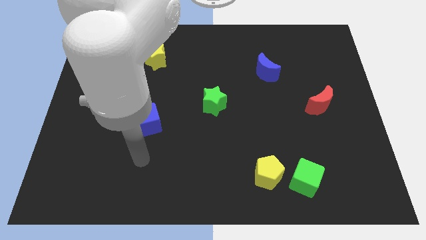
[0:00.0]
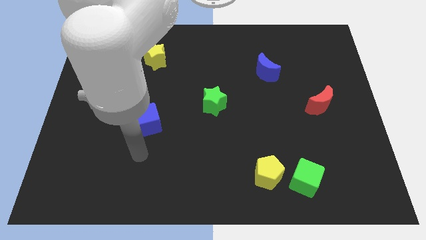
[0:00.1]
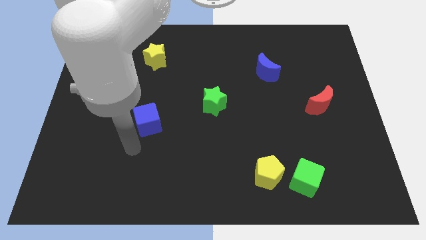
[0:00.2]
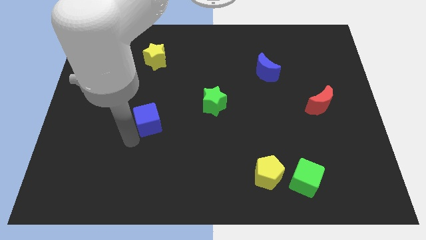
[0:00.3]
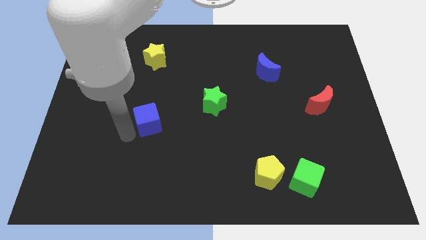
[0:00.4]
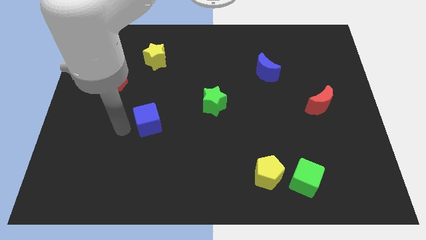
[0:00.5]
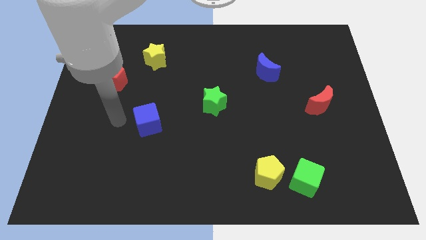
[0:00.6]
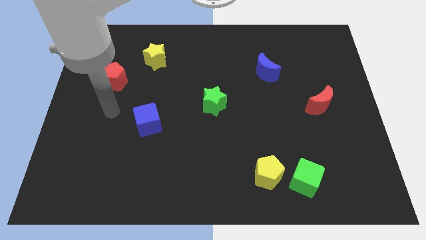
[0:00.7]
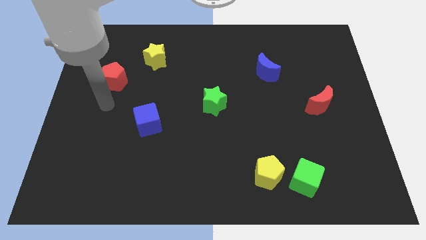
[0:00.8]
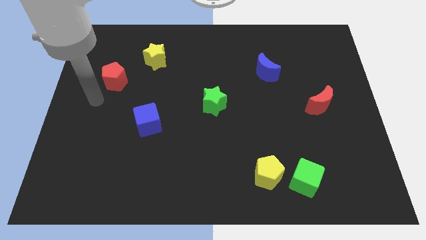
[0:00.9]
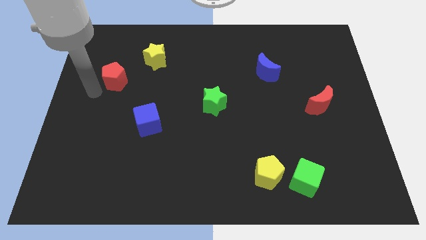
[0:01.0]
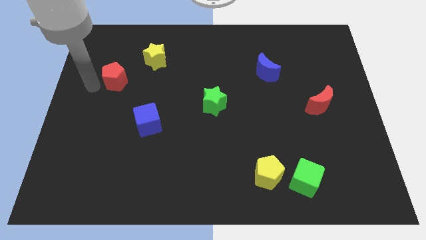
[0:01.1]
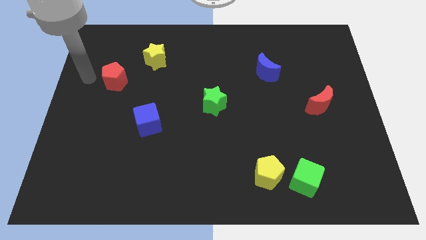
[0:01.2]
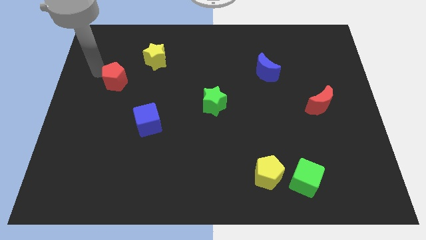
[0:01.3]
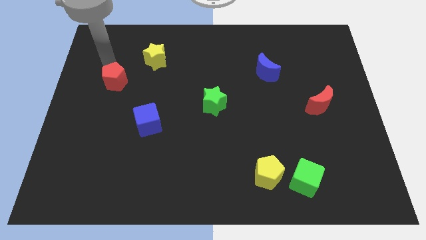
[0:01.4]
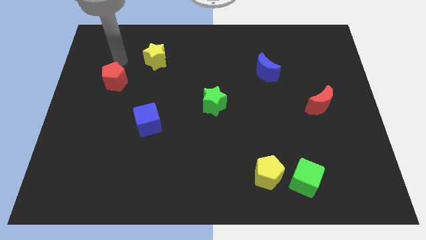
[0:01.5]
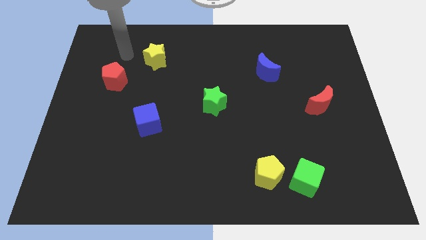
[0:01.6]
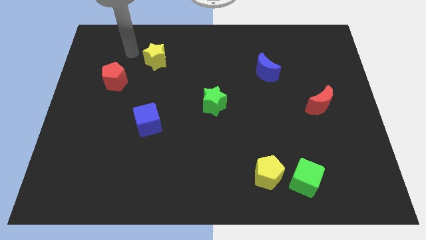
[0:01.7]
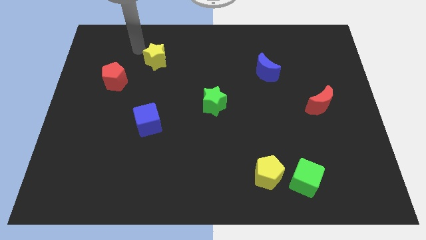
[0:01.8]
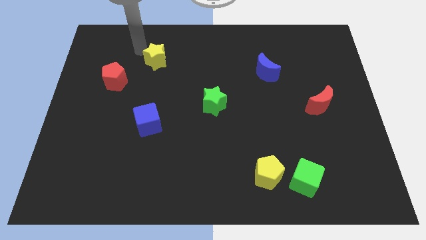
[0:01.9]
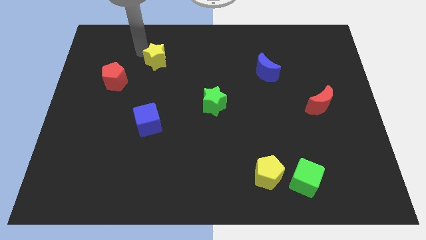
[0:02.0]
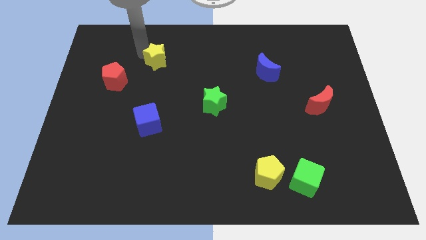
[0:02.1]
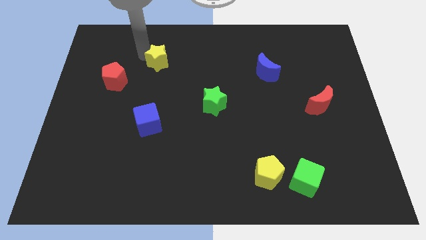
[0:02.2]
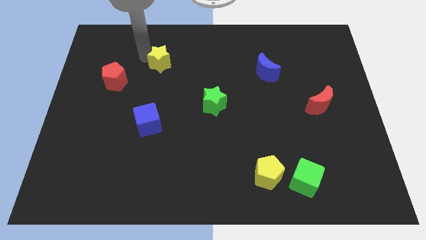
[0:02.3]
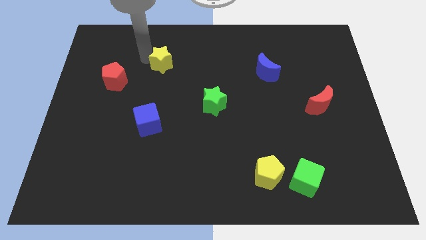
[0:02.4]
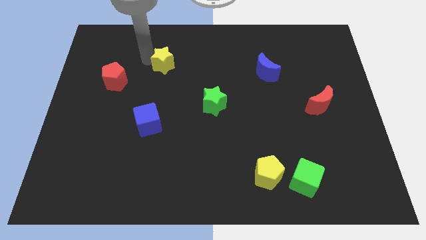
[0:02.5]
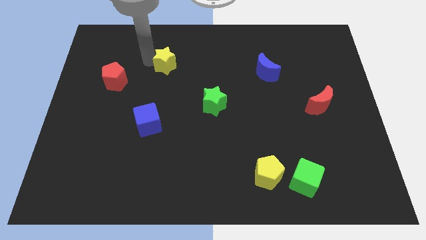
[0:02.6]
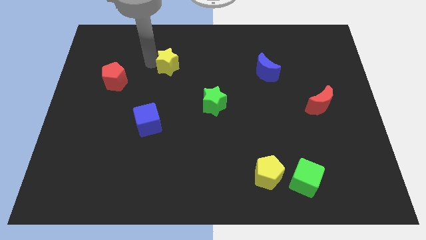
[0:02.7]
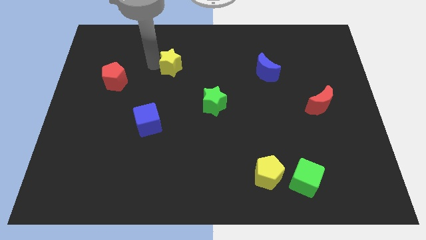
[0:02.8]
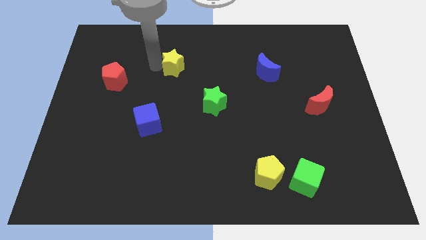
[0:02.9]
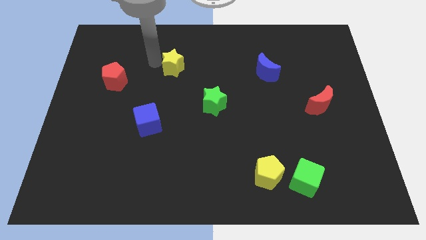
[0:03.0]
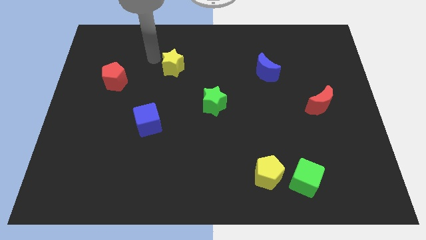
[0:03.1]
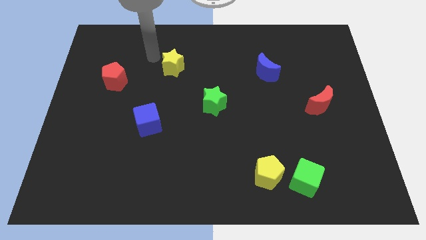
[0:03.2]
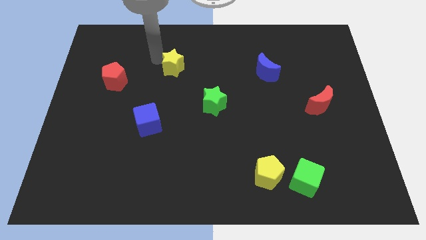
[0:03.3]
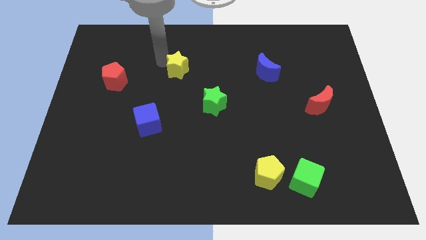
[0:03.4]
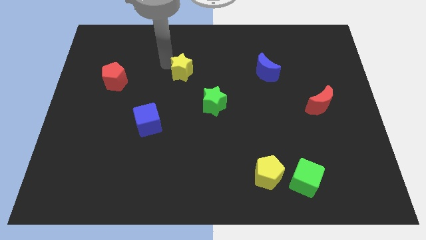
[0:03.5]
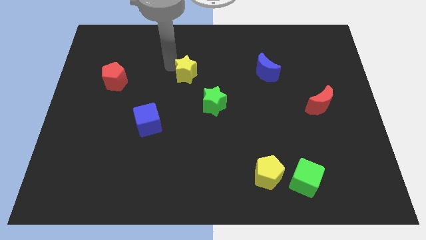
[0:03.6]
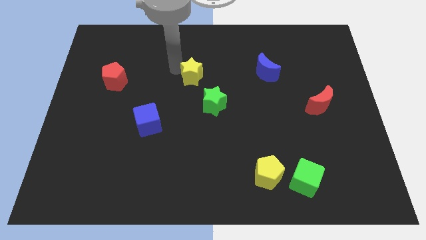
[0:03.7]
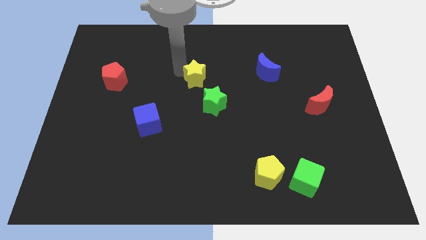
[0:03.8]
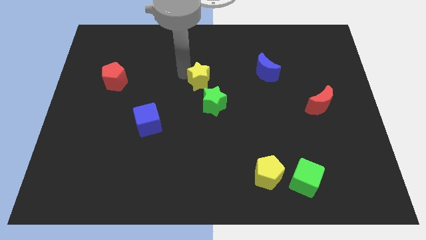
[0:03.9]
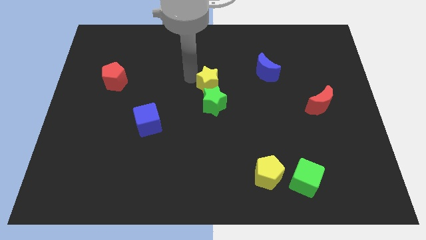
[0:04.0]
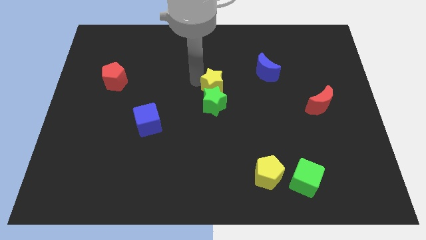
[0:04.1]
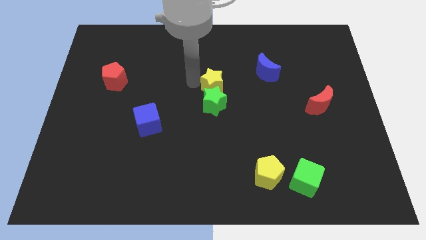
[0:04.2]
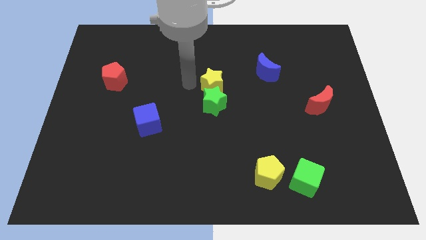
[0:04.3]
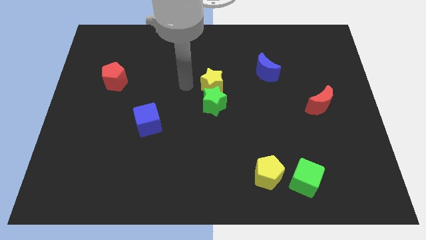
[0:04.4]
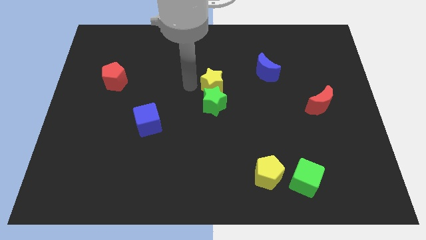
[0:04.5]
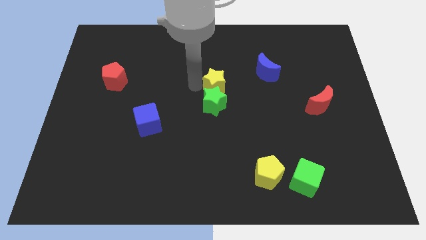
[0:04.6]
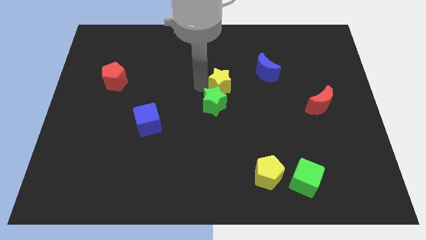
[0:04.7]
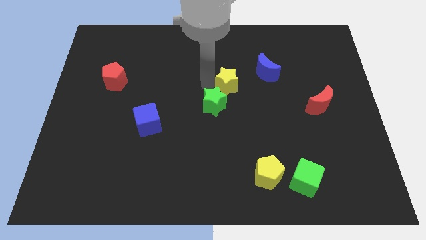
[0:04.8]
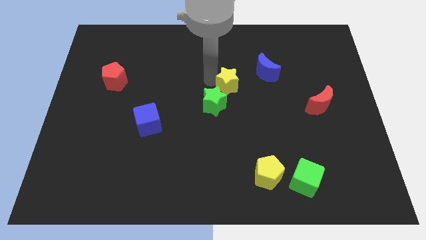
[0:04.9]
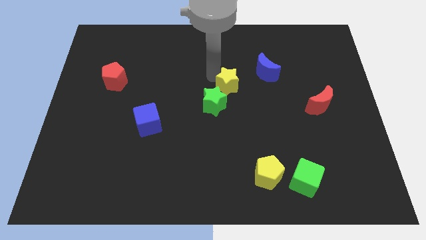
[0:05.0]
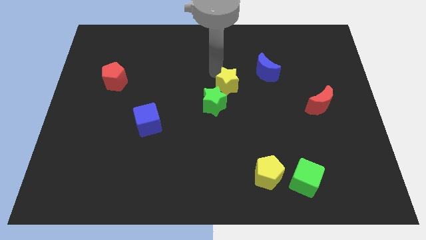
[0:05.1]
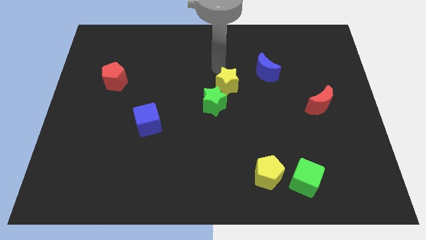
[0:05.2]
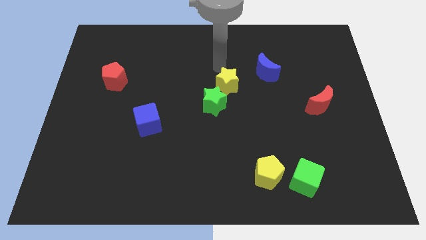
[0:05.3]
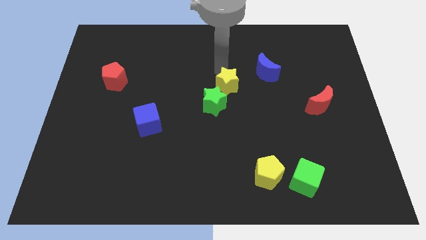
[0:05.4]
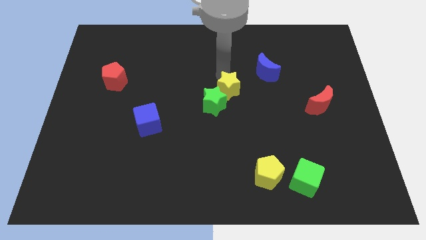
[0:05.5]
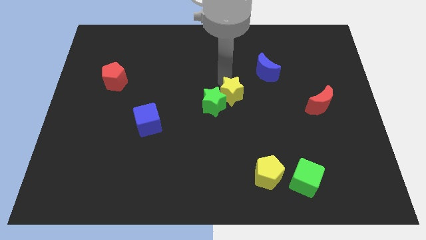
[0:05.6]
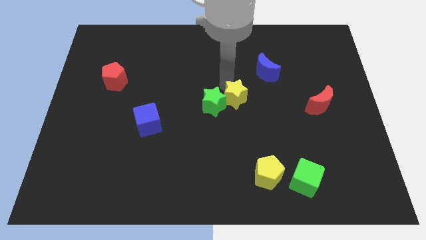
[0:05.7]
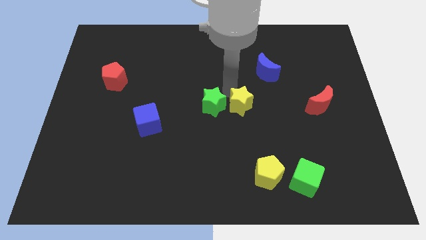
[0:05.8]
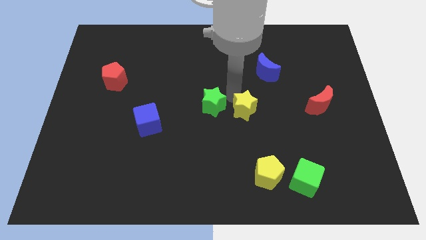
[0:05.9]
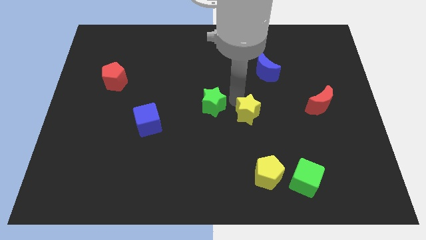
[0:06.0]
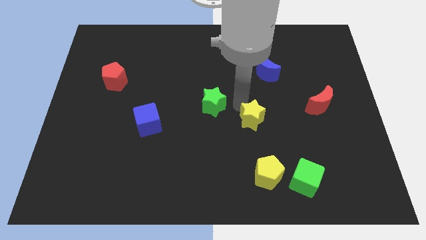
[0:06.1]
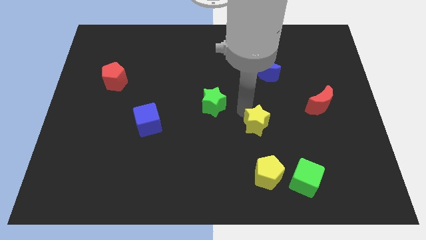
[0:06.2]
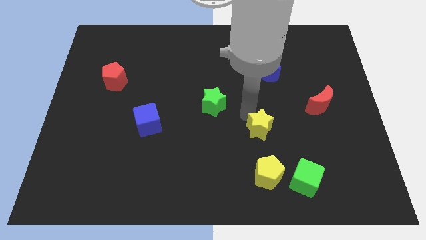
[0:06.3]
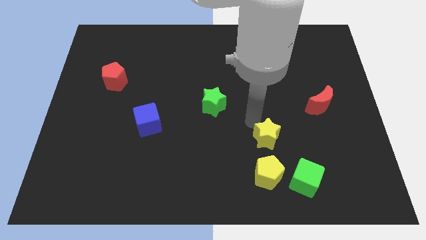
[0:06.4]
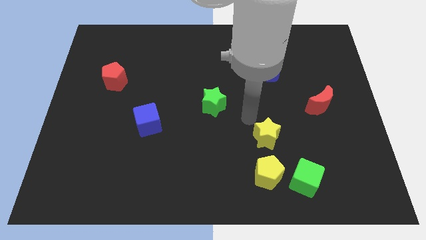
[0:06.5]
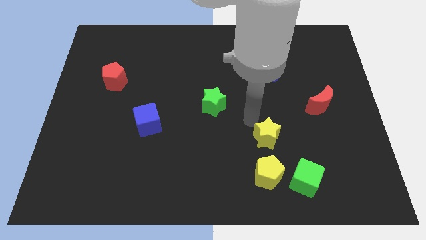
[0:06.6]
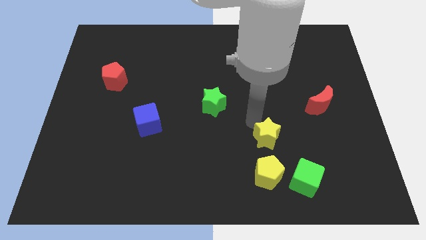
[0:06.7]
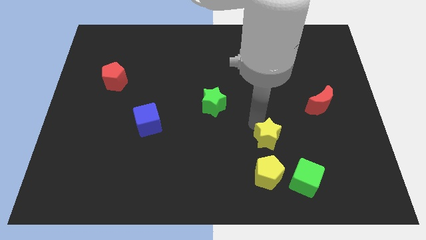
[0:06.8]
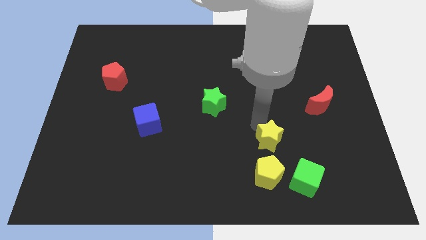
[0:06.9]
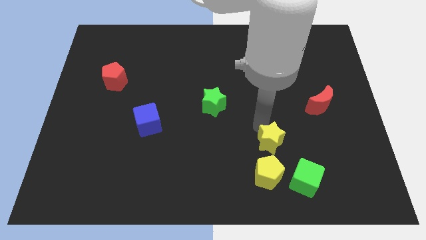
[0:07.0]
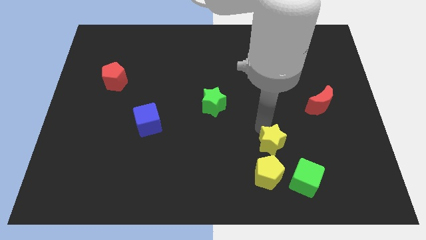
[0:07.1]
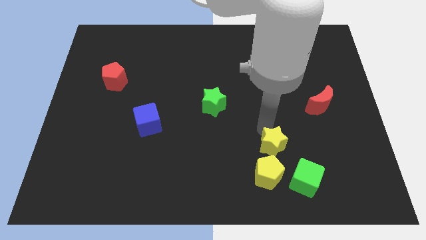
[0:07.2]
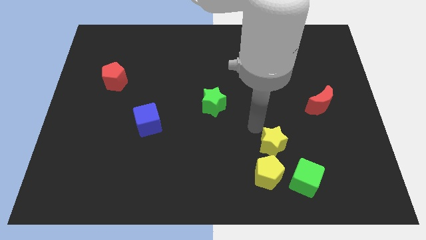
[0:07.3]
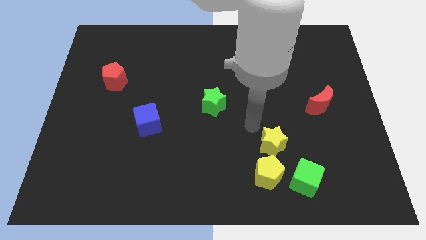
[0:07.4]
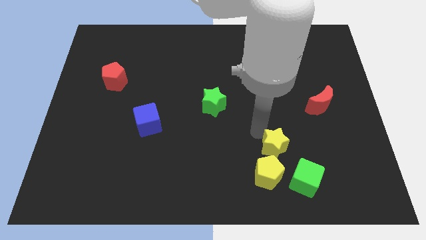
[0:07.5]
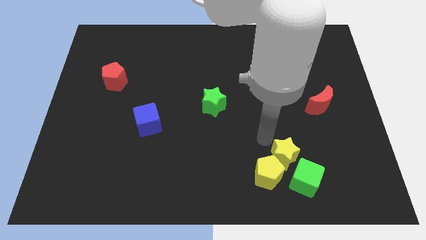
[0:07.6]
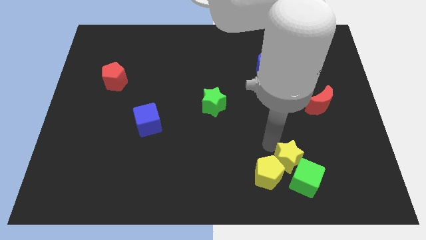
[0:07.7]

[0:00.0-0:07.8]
push the yellow star to the green cube

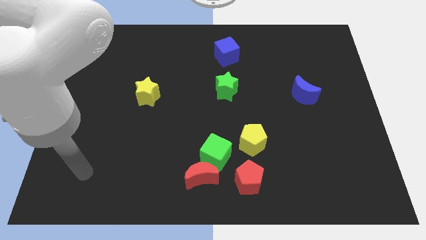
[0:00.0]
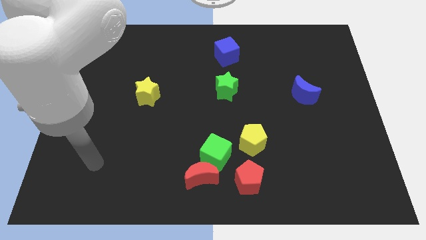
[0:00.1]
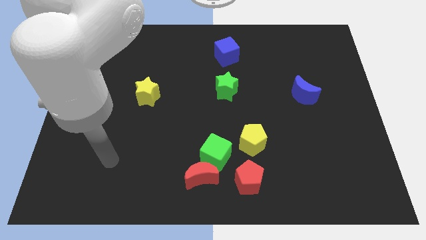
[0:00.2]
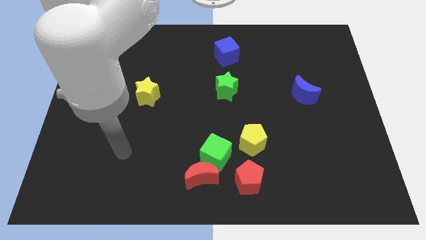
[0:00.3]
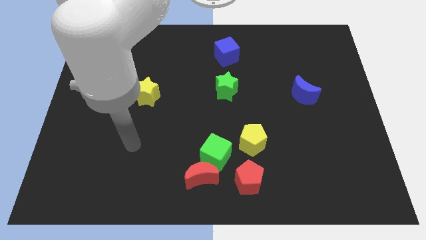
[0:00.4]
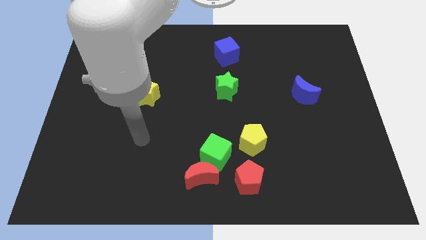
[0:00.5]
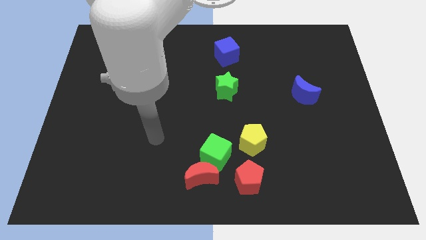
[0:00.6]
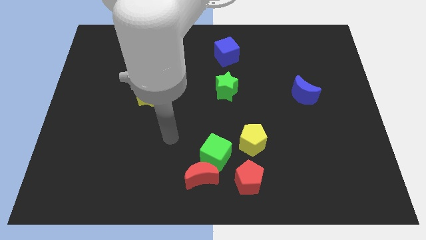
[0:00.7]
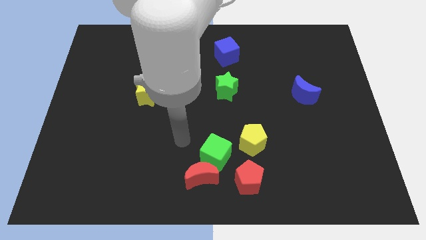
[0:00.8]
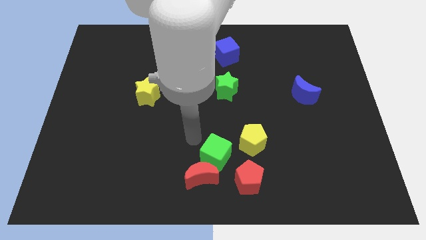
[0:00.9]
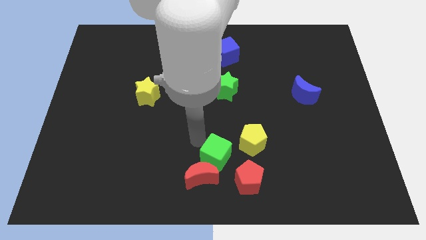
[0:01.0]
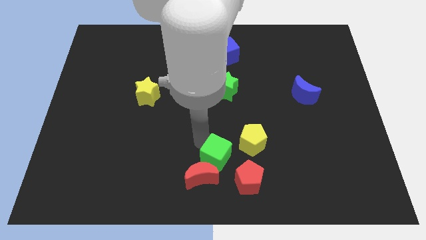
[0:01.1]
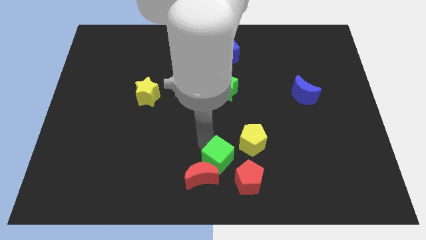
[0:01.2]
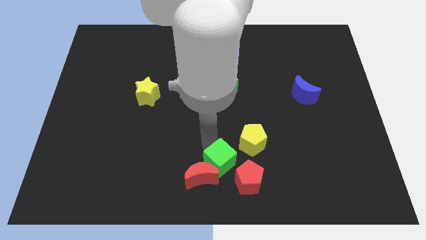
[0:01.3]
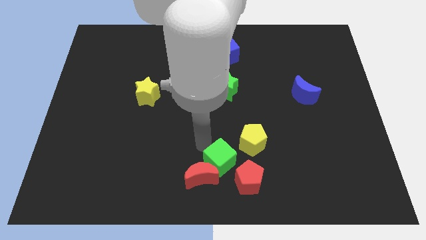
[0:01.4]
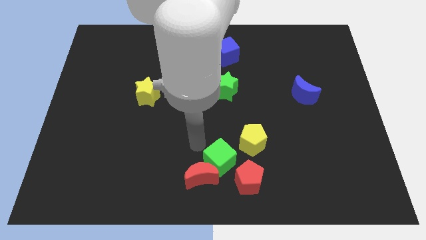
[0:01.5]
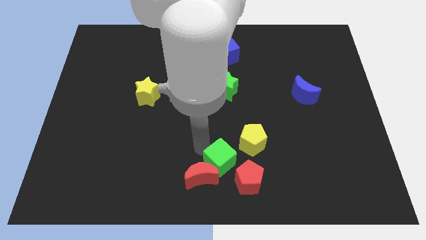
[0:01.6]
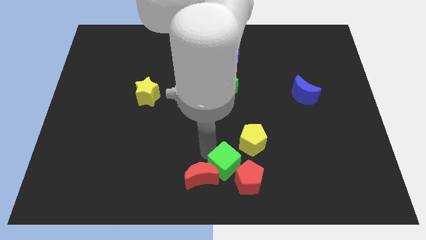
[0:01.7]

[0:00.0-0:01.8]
slide the green cube next to the red pentagon
